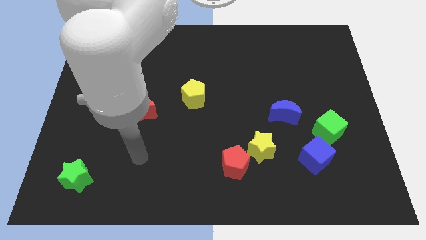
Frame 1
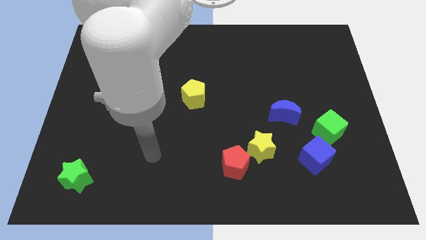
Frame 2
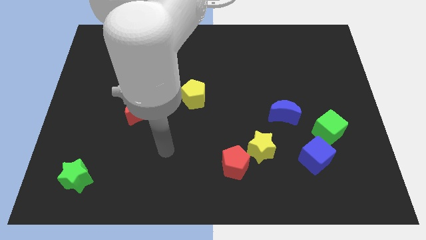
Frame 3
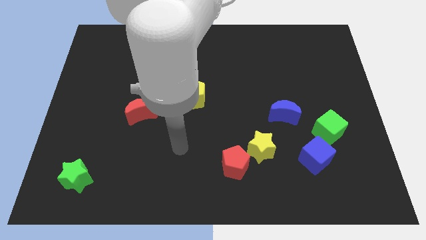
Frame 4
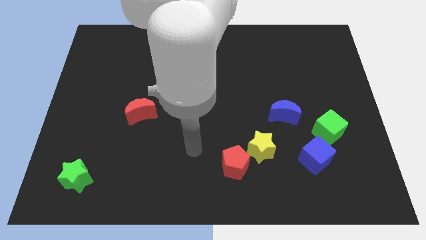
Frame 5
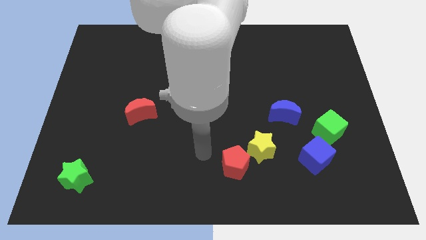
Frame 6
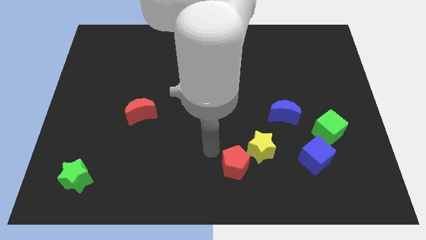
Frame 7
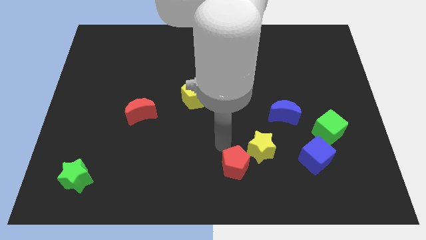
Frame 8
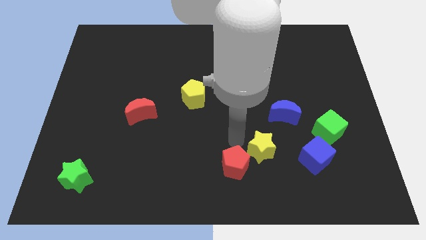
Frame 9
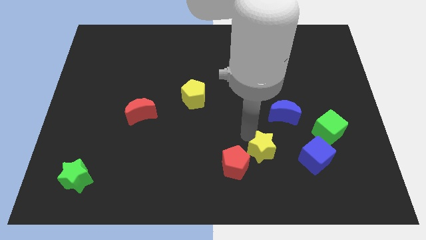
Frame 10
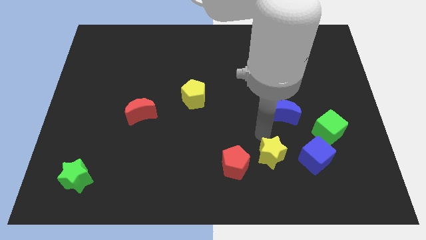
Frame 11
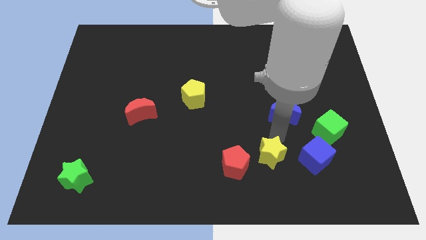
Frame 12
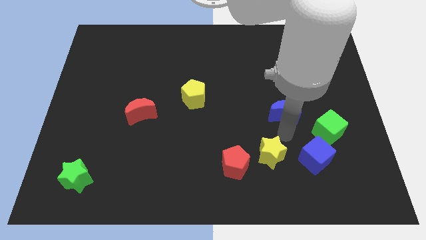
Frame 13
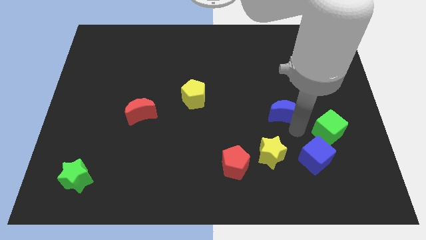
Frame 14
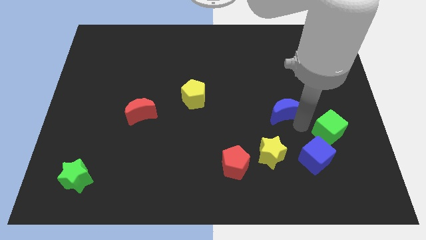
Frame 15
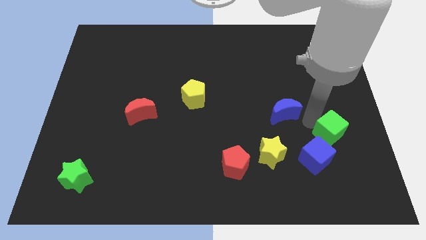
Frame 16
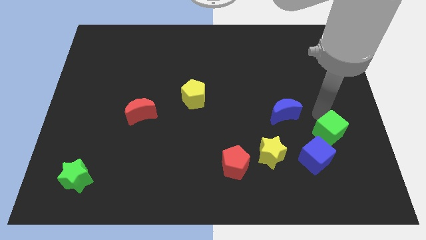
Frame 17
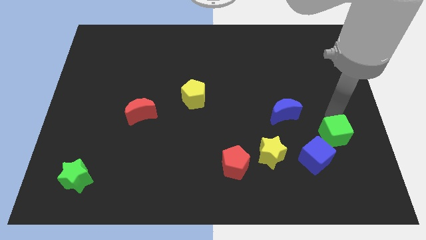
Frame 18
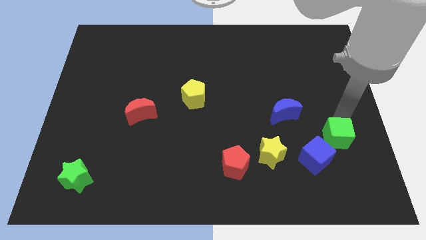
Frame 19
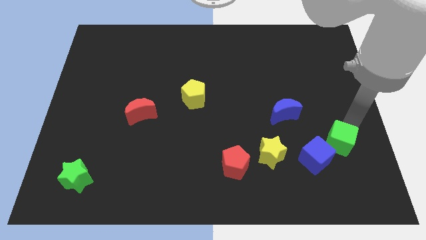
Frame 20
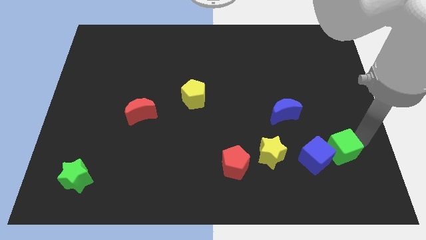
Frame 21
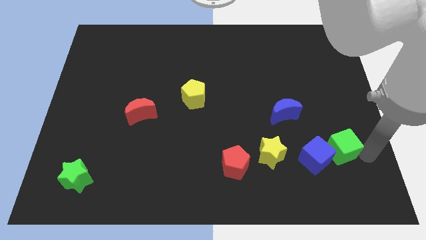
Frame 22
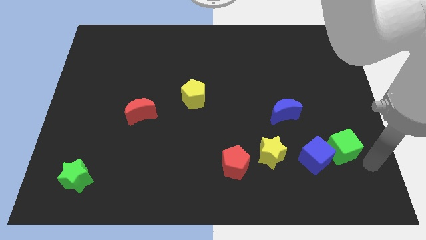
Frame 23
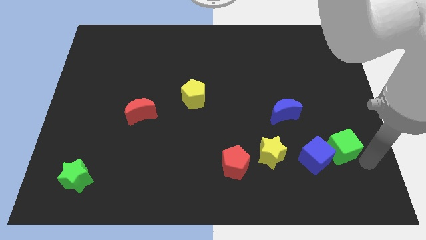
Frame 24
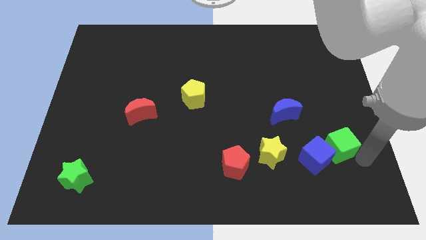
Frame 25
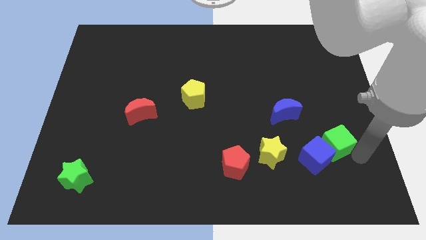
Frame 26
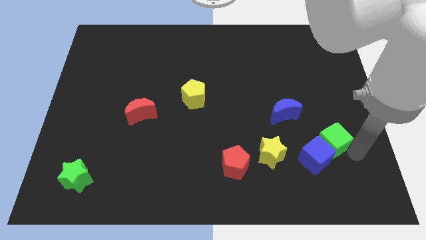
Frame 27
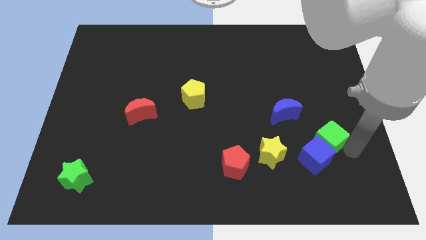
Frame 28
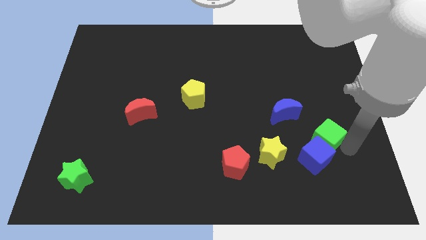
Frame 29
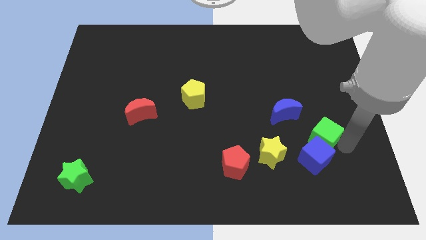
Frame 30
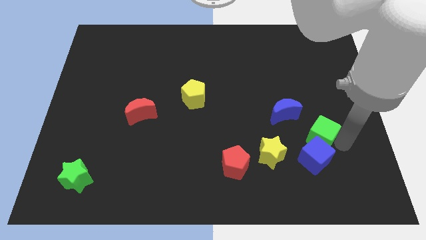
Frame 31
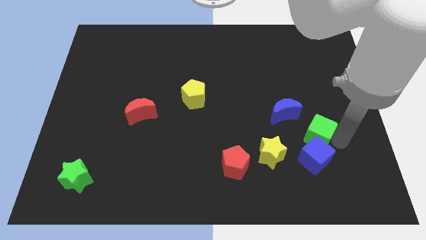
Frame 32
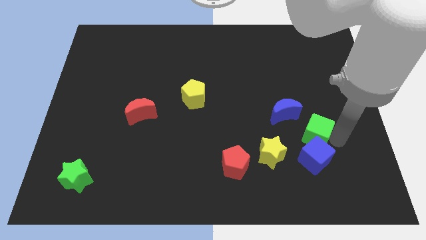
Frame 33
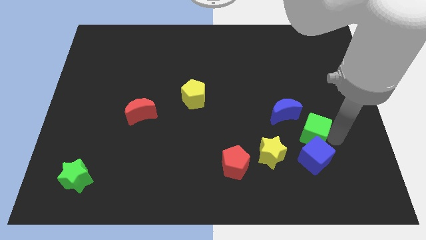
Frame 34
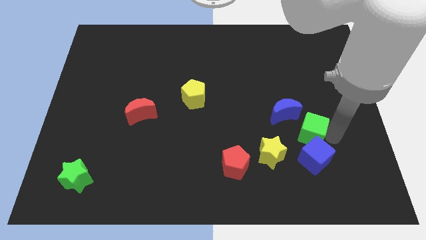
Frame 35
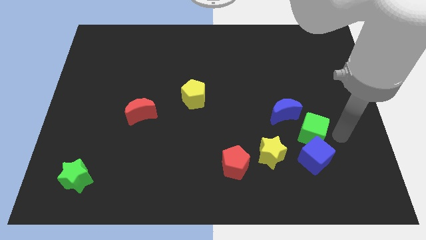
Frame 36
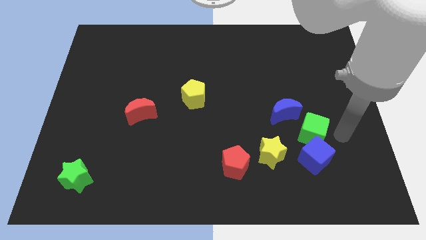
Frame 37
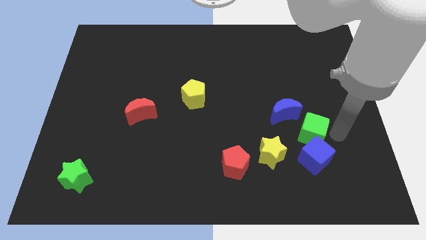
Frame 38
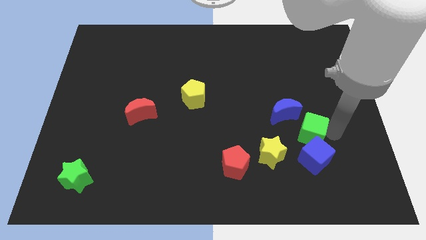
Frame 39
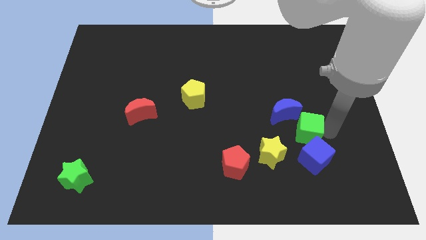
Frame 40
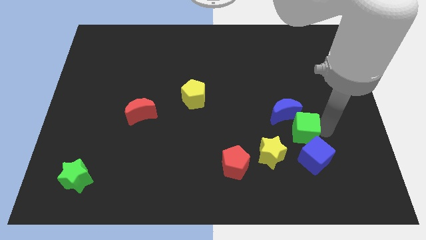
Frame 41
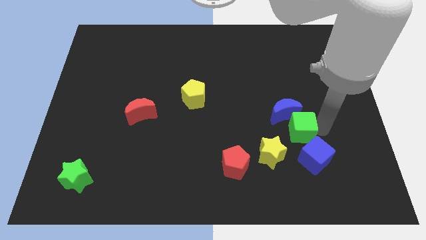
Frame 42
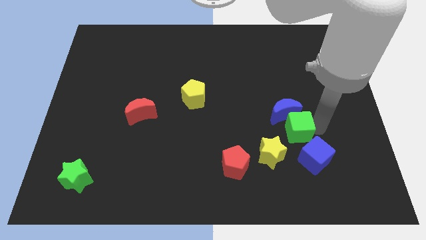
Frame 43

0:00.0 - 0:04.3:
push the green cube left a little bit

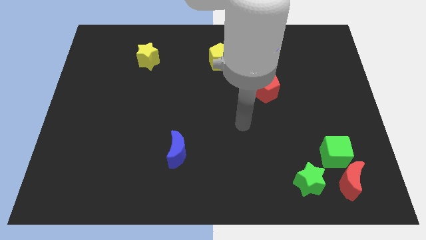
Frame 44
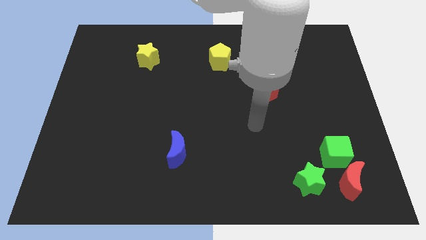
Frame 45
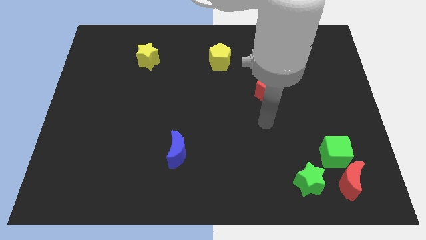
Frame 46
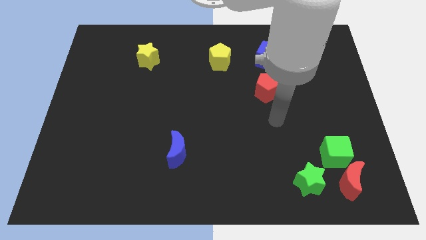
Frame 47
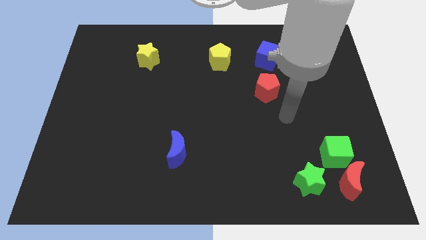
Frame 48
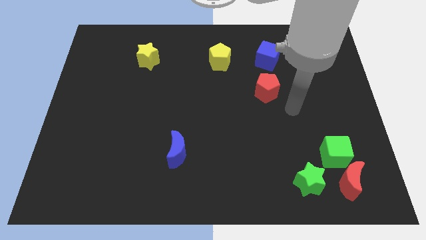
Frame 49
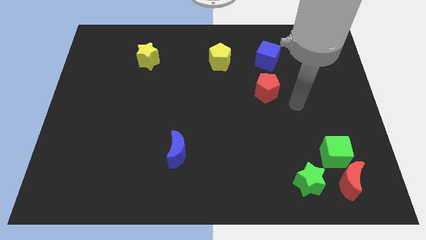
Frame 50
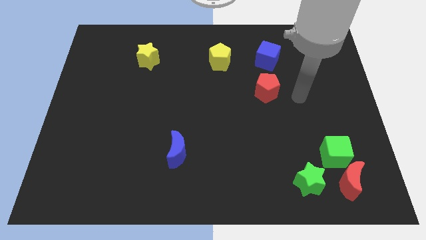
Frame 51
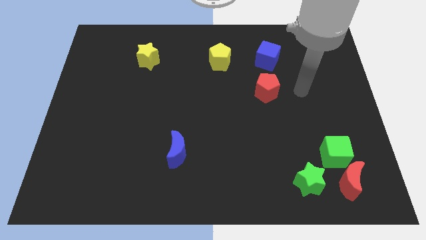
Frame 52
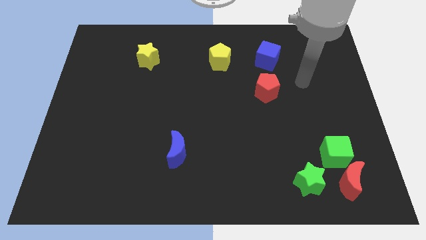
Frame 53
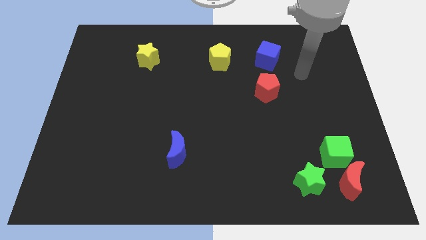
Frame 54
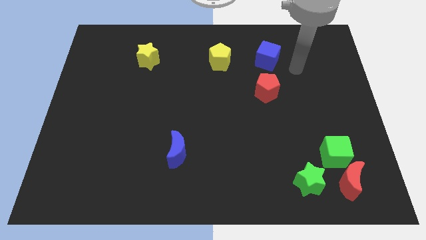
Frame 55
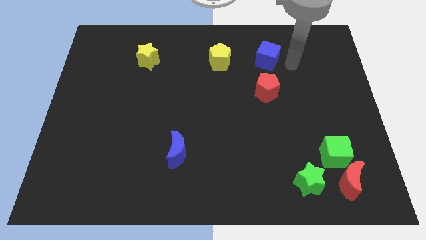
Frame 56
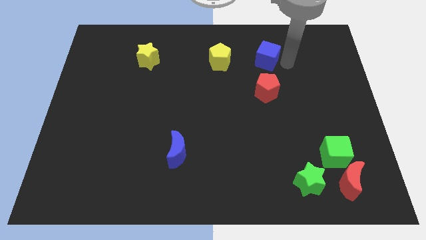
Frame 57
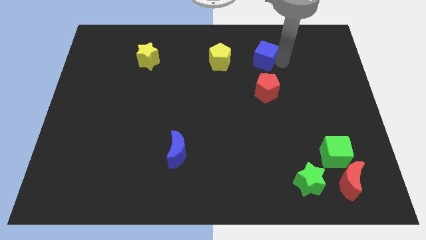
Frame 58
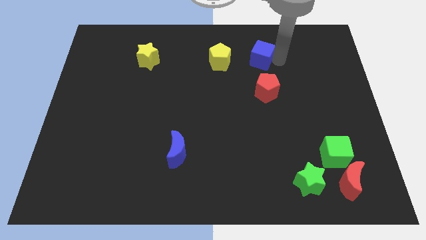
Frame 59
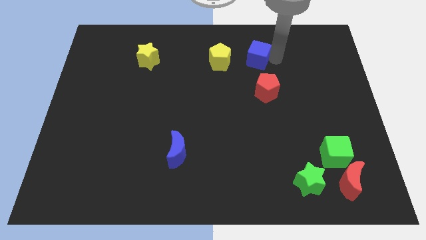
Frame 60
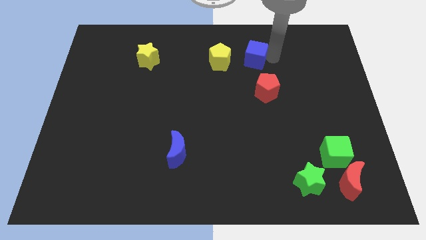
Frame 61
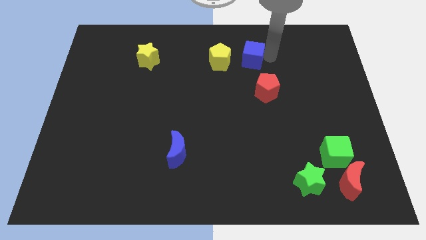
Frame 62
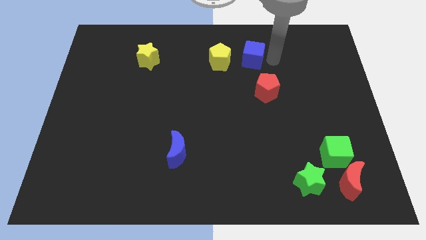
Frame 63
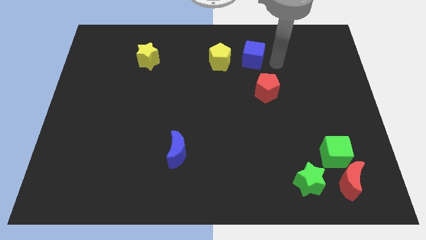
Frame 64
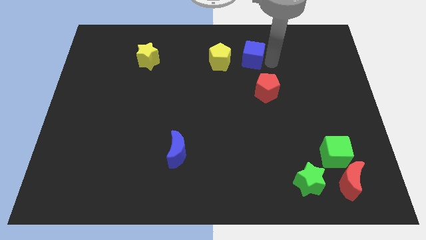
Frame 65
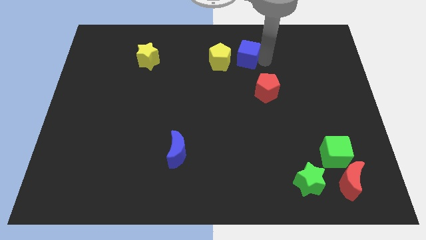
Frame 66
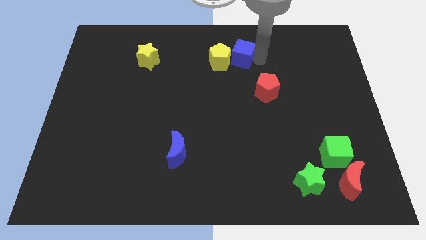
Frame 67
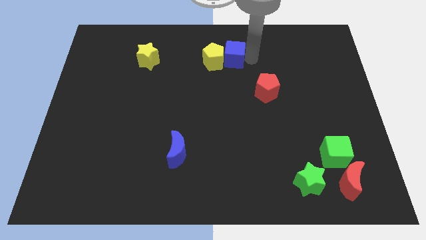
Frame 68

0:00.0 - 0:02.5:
slide the blue cube a bit left

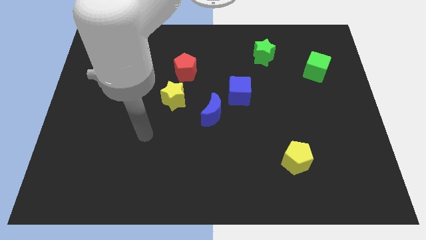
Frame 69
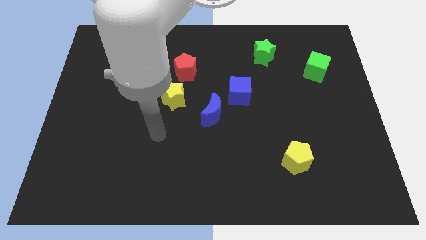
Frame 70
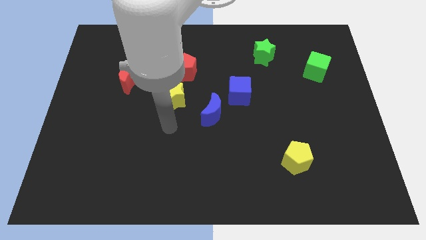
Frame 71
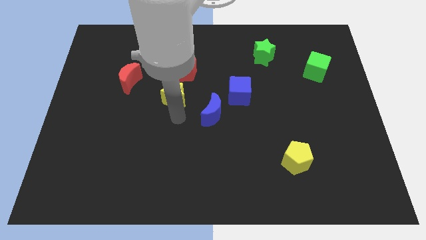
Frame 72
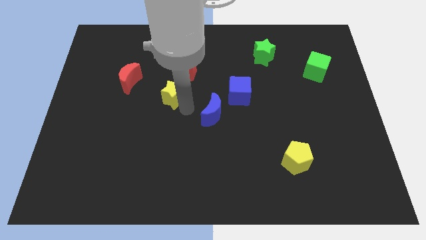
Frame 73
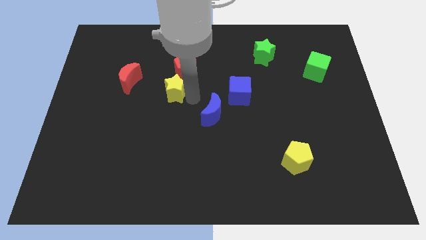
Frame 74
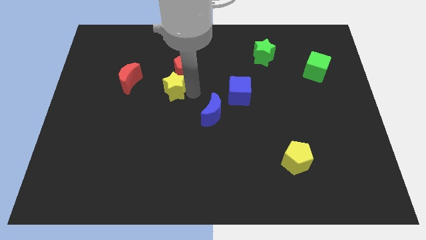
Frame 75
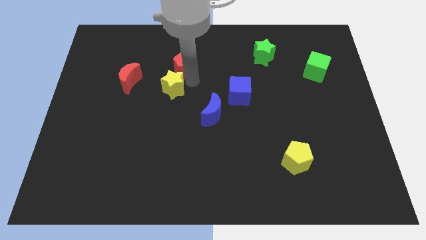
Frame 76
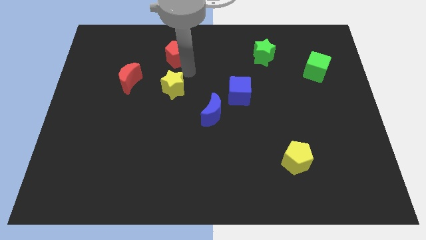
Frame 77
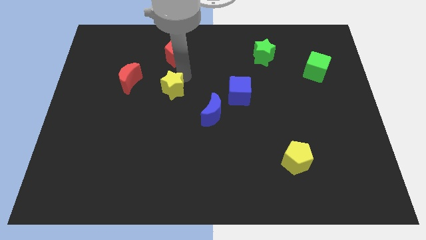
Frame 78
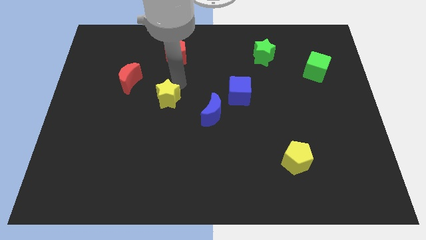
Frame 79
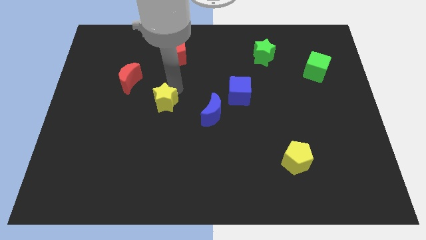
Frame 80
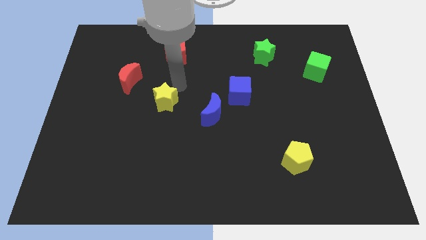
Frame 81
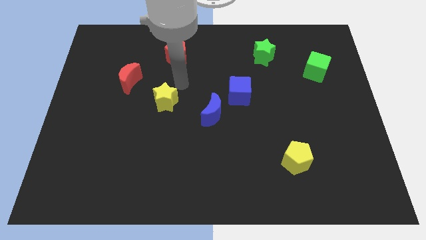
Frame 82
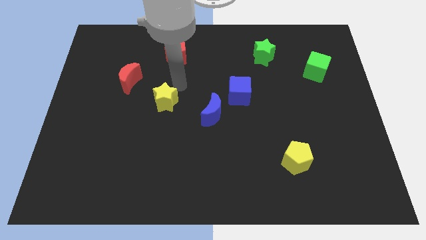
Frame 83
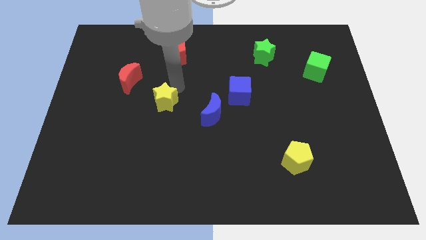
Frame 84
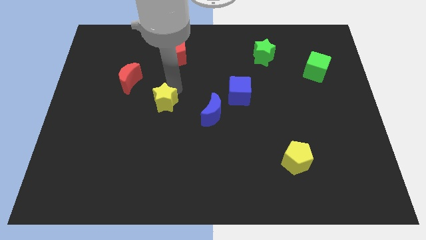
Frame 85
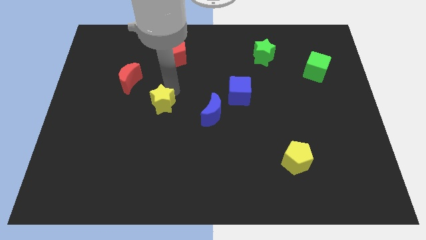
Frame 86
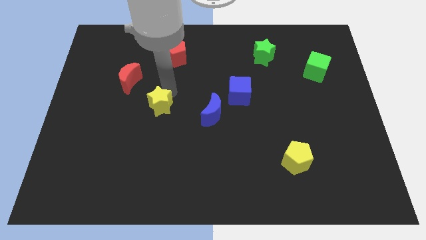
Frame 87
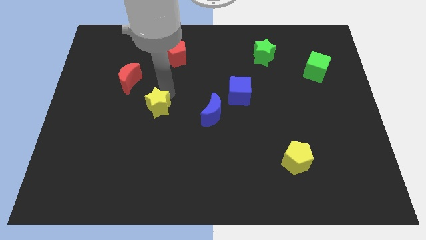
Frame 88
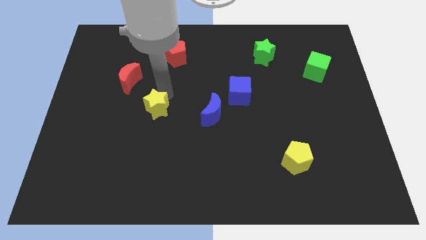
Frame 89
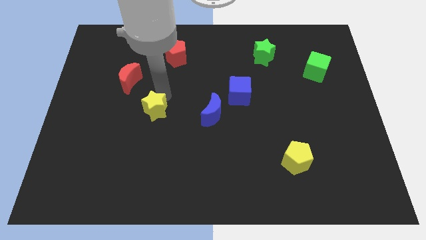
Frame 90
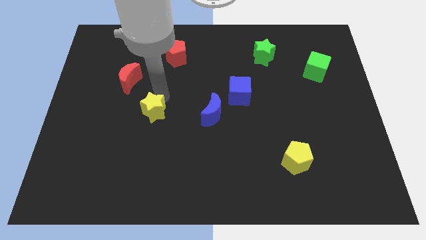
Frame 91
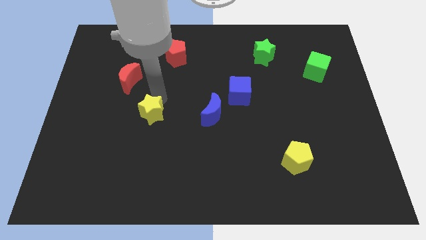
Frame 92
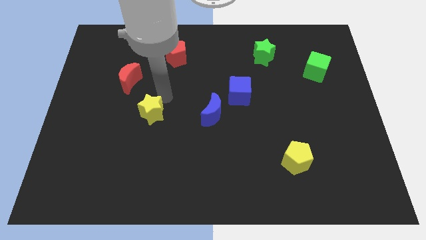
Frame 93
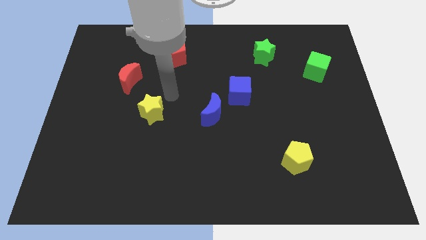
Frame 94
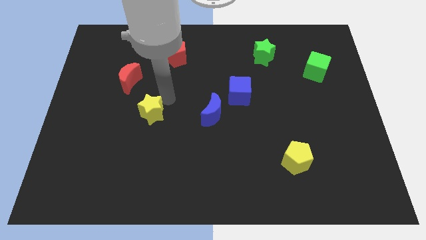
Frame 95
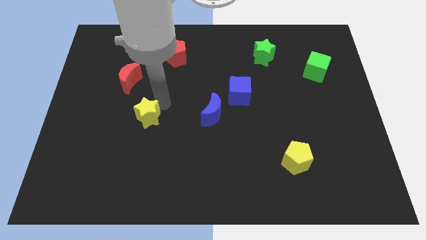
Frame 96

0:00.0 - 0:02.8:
move the yellow star a little diagonally downwards and left
